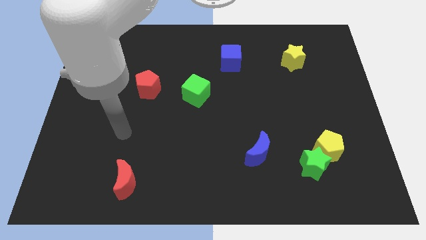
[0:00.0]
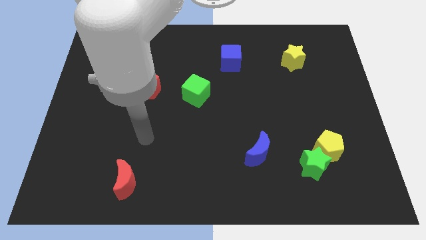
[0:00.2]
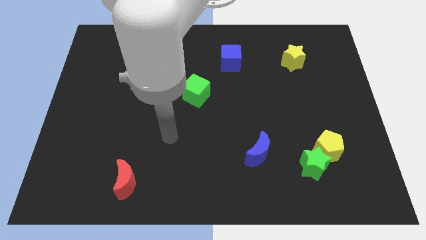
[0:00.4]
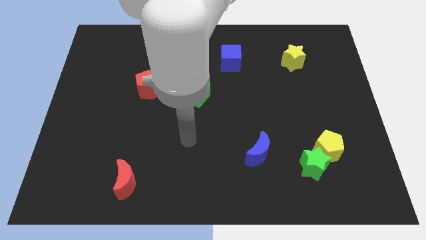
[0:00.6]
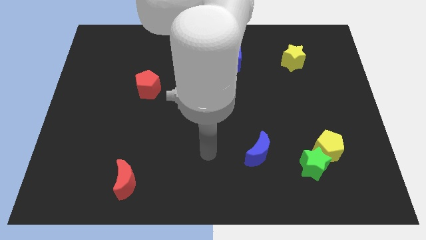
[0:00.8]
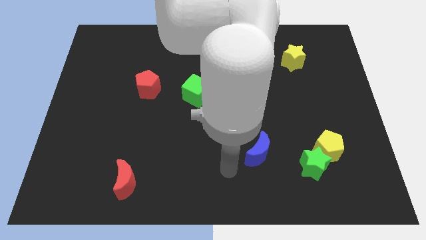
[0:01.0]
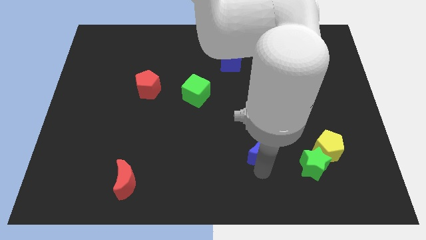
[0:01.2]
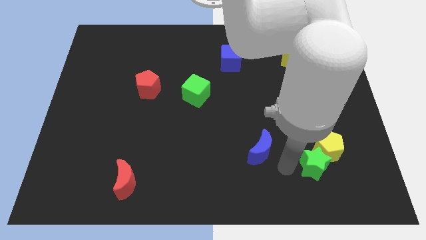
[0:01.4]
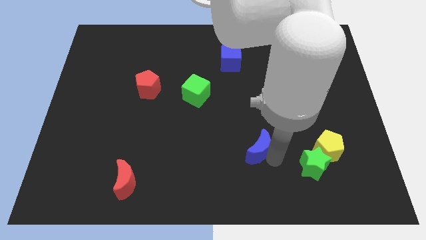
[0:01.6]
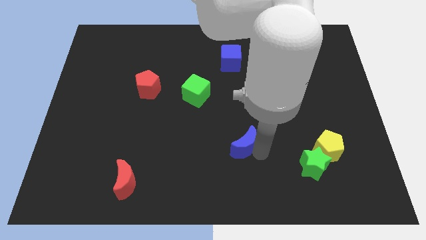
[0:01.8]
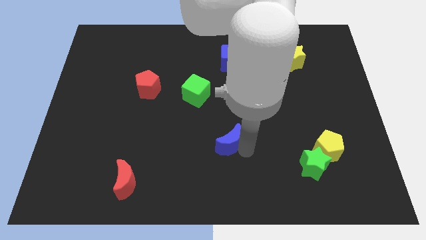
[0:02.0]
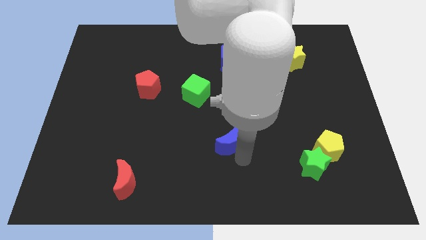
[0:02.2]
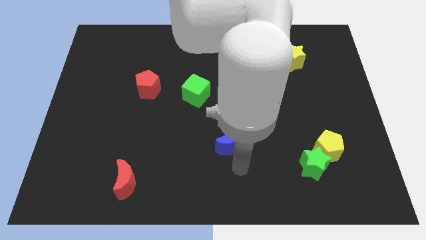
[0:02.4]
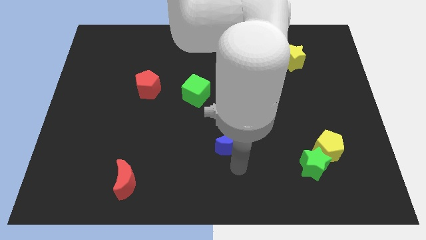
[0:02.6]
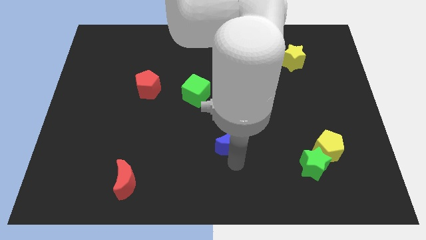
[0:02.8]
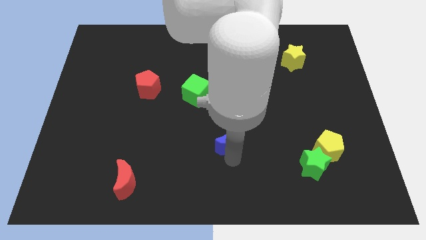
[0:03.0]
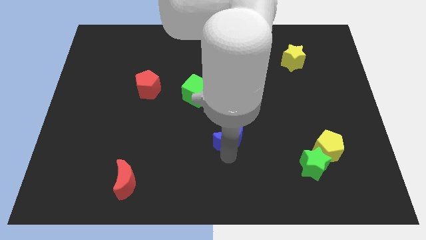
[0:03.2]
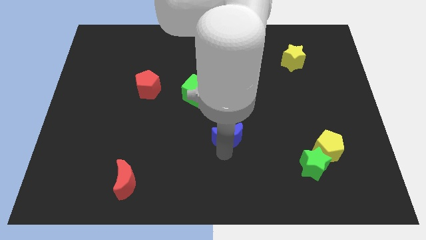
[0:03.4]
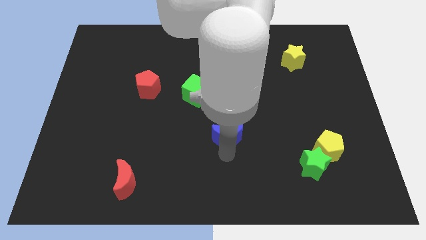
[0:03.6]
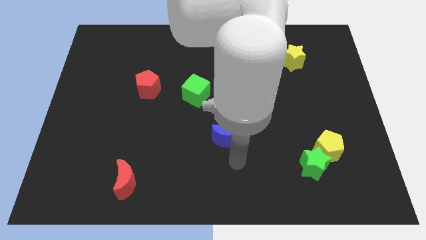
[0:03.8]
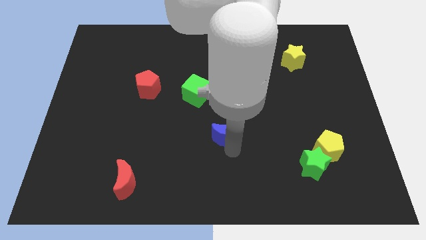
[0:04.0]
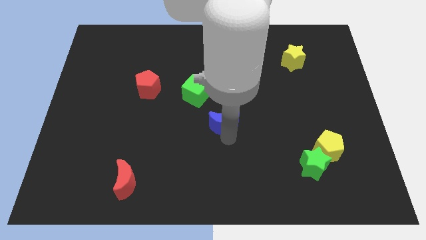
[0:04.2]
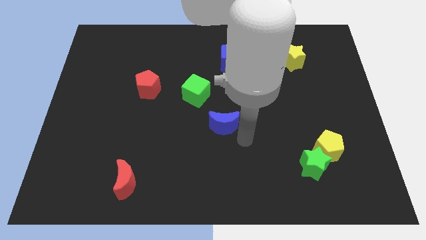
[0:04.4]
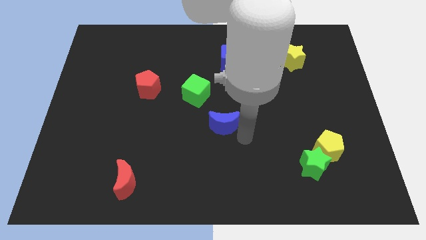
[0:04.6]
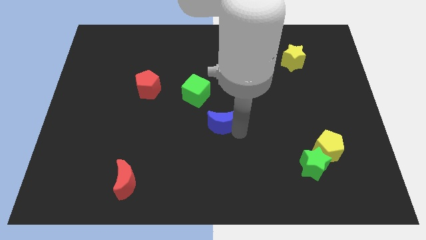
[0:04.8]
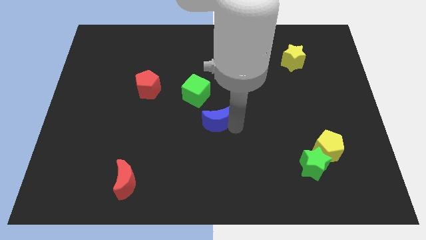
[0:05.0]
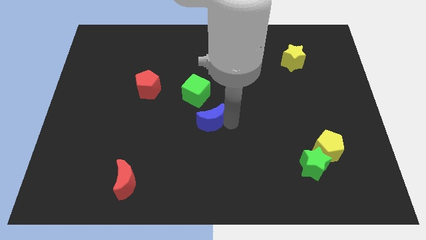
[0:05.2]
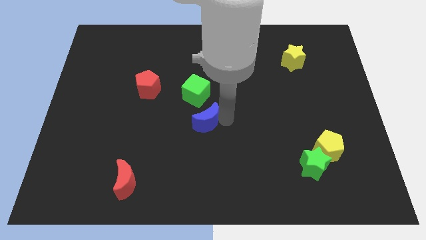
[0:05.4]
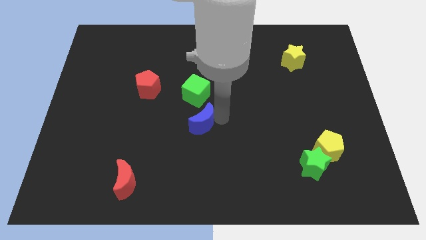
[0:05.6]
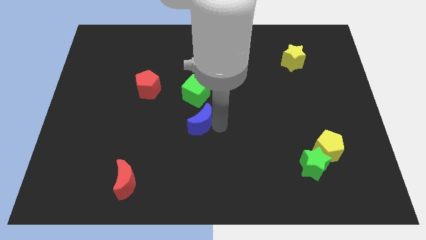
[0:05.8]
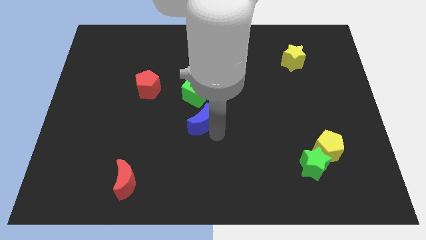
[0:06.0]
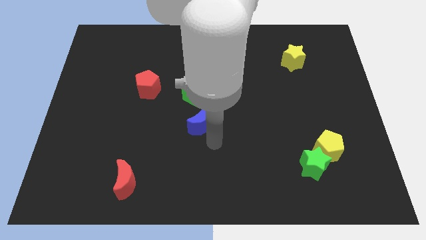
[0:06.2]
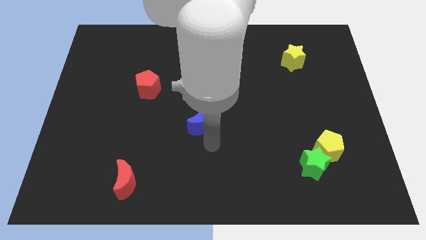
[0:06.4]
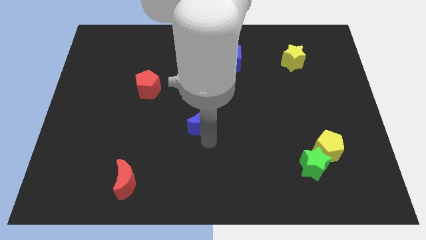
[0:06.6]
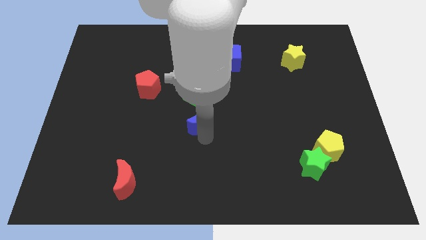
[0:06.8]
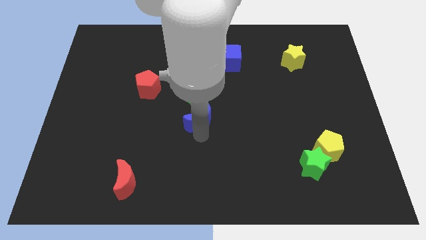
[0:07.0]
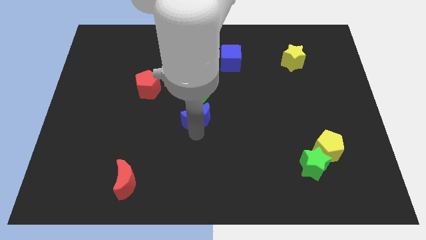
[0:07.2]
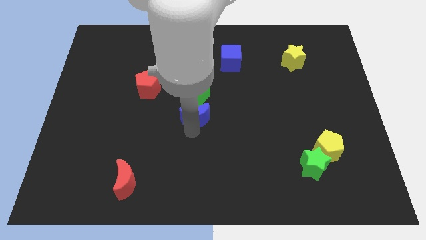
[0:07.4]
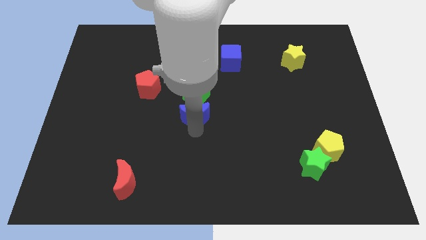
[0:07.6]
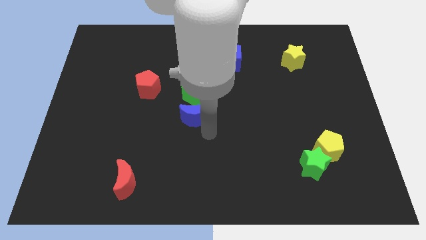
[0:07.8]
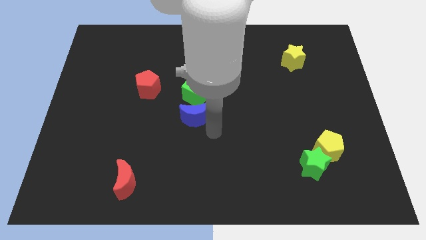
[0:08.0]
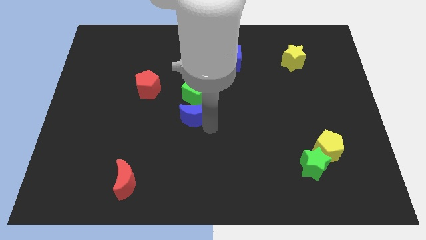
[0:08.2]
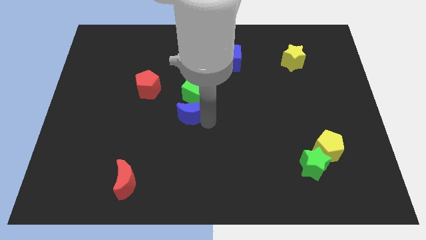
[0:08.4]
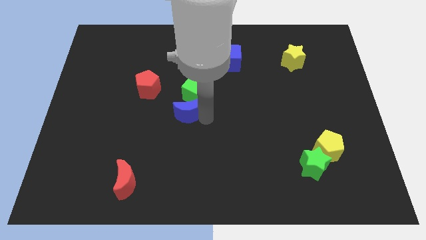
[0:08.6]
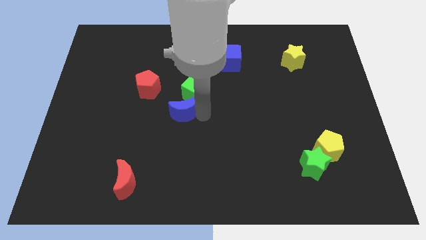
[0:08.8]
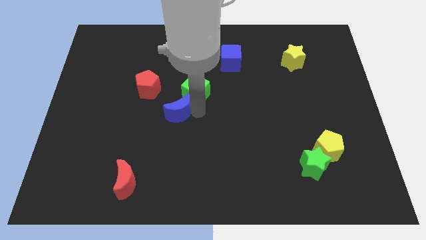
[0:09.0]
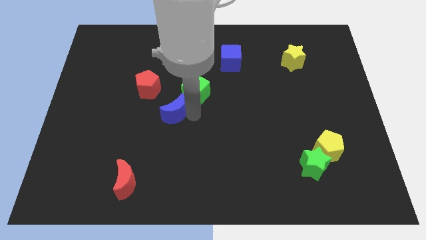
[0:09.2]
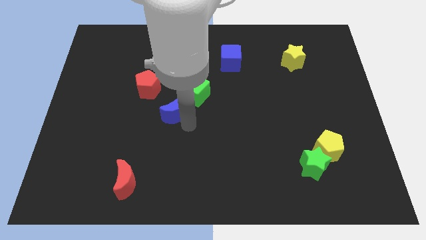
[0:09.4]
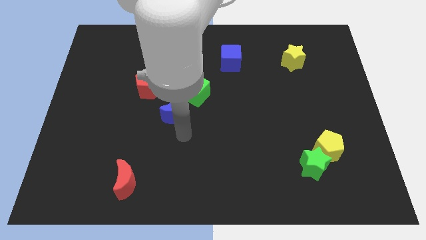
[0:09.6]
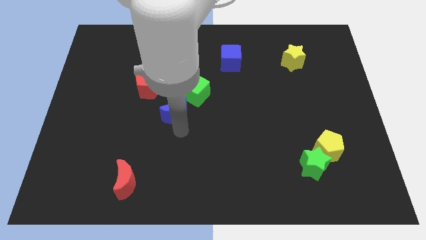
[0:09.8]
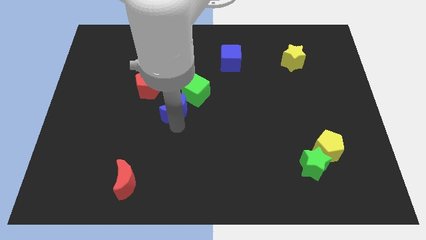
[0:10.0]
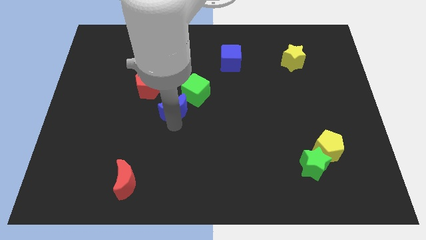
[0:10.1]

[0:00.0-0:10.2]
slide the blue moon up and to the left

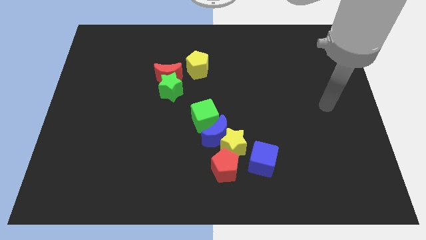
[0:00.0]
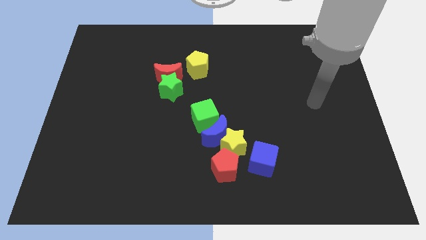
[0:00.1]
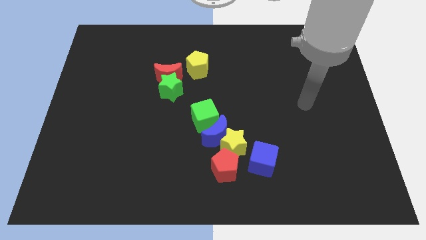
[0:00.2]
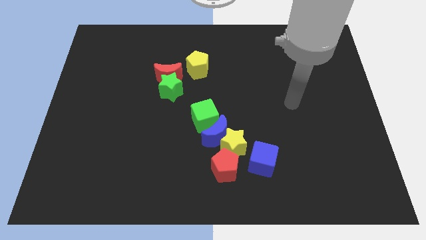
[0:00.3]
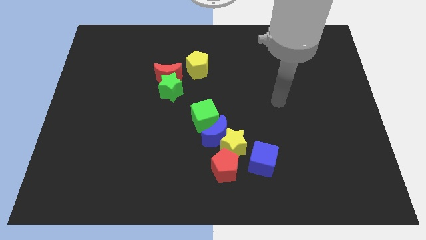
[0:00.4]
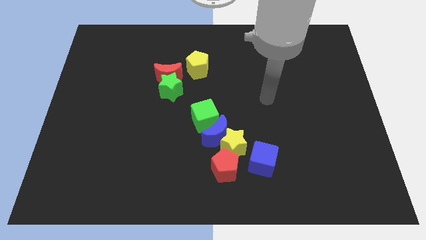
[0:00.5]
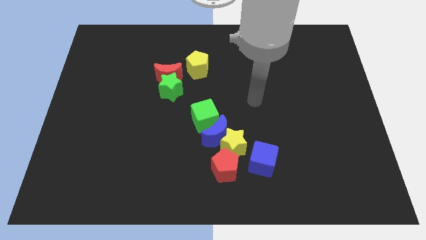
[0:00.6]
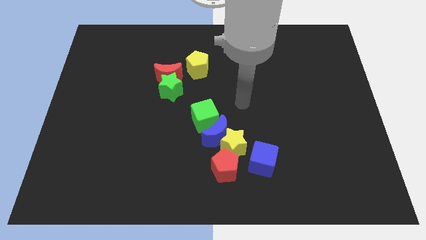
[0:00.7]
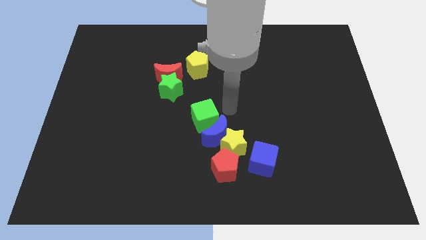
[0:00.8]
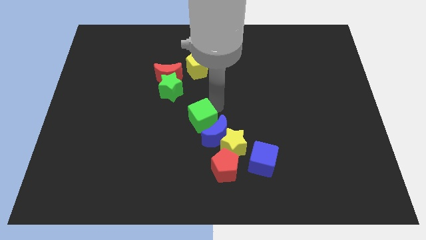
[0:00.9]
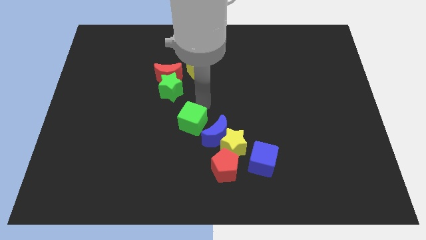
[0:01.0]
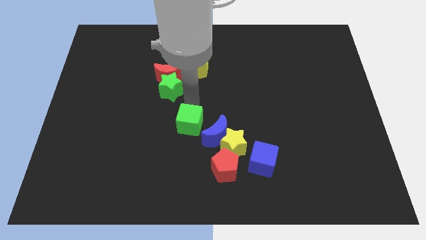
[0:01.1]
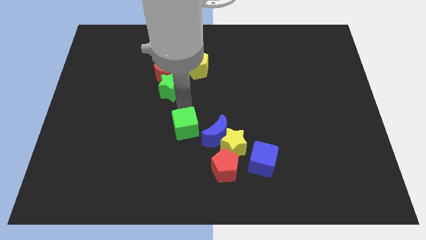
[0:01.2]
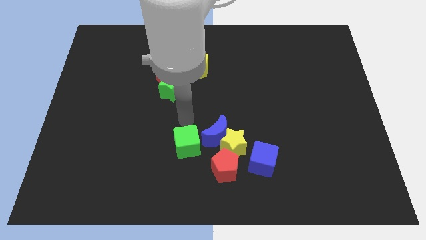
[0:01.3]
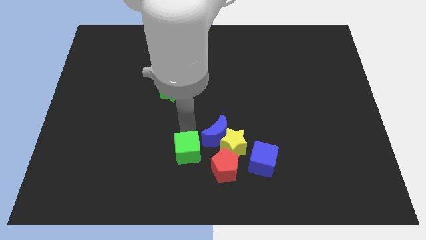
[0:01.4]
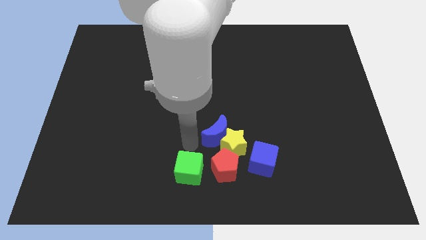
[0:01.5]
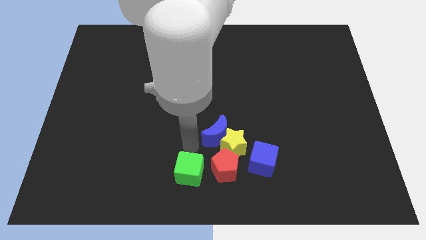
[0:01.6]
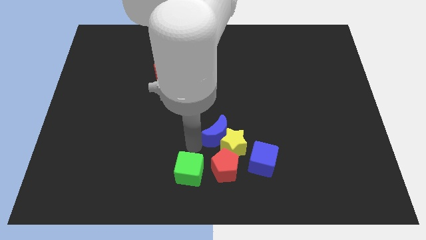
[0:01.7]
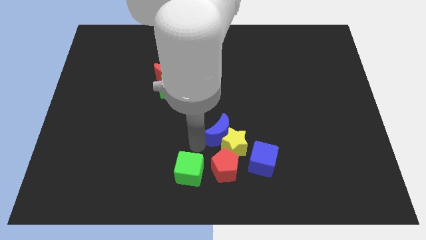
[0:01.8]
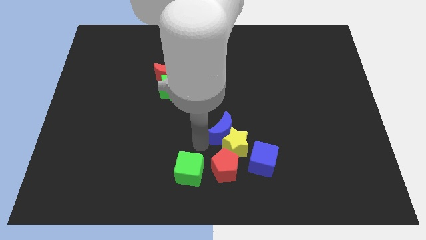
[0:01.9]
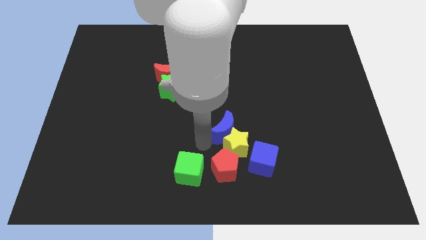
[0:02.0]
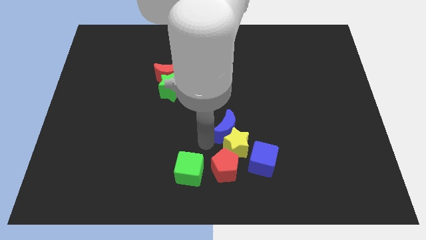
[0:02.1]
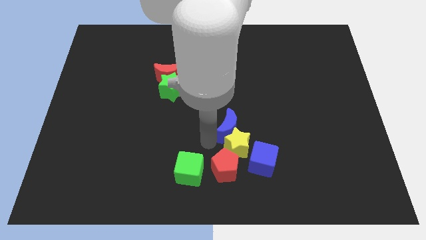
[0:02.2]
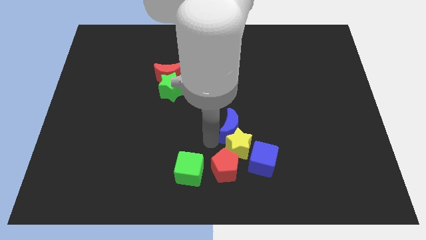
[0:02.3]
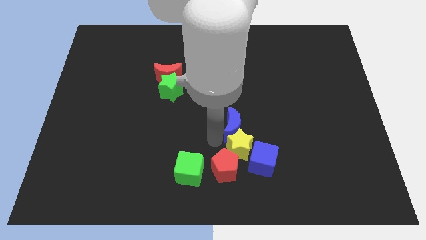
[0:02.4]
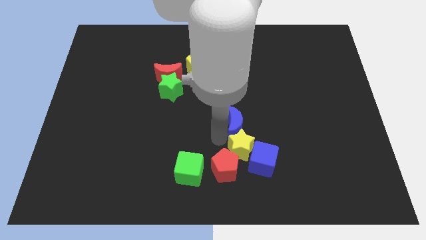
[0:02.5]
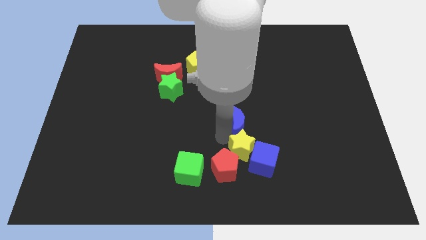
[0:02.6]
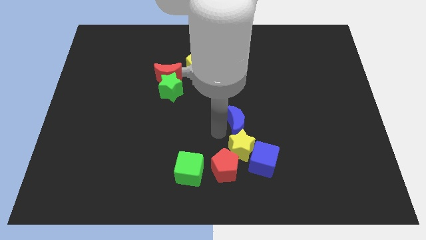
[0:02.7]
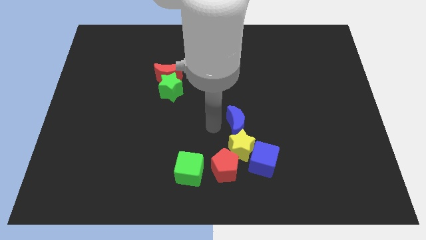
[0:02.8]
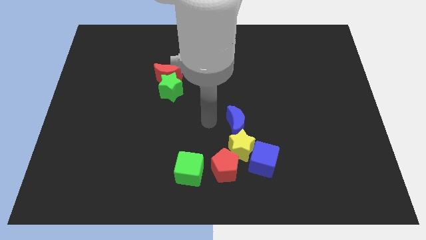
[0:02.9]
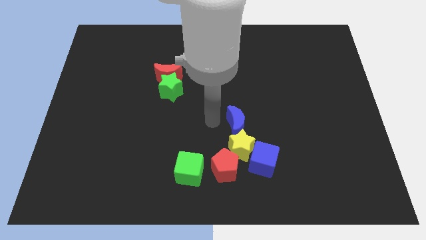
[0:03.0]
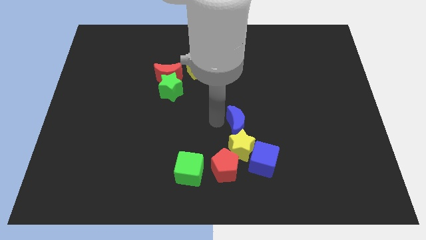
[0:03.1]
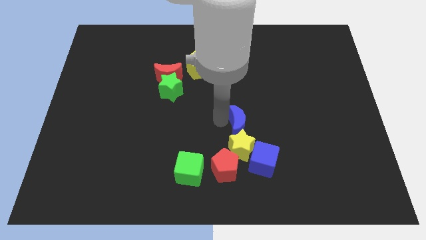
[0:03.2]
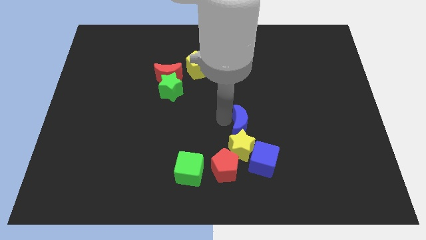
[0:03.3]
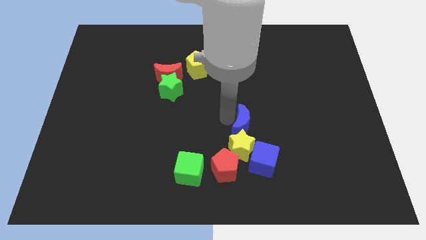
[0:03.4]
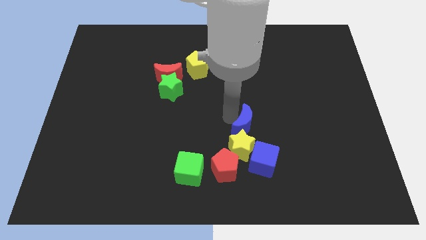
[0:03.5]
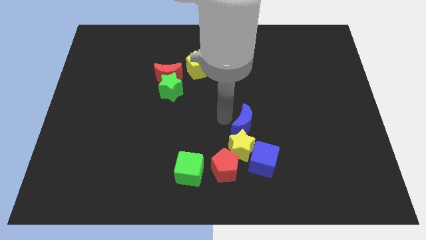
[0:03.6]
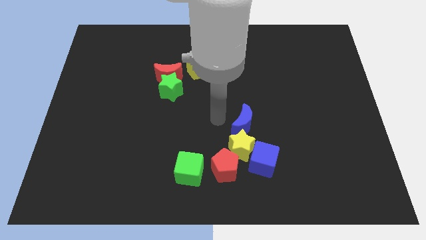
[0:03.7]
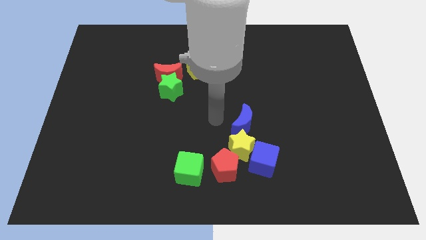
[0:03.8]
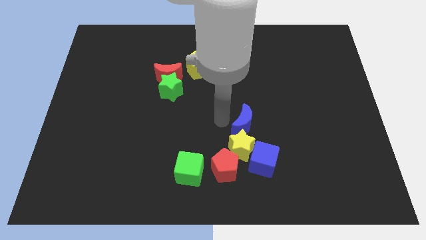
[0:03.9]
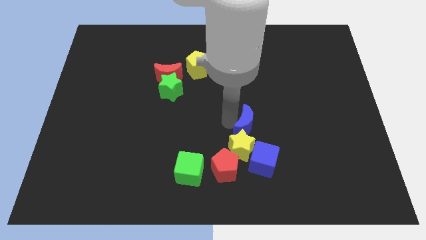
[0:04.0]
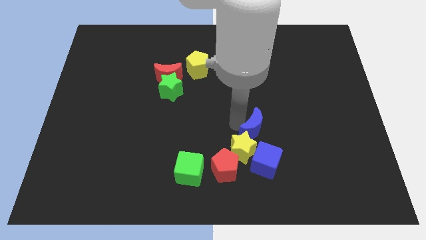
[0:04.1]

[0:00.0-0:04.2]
slide the blue moon a little bit to the right
